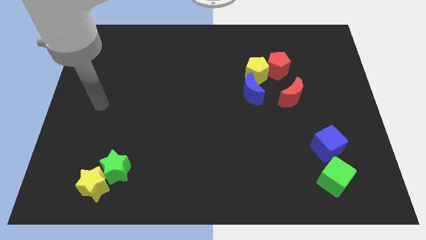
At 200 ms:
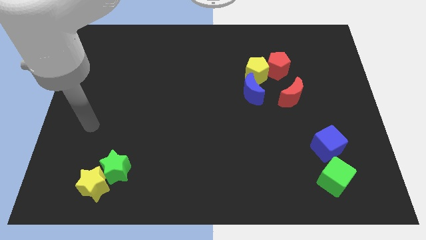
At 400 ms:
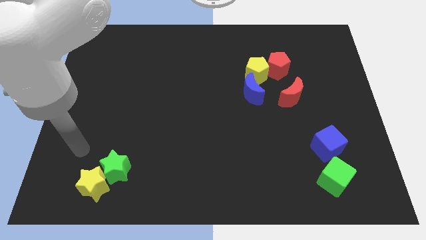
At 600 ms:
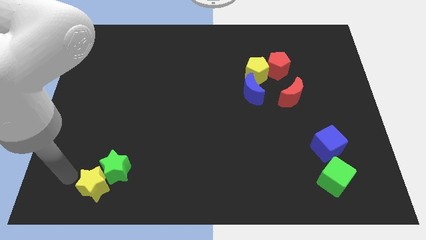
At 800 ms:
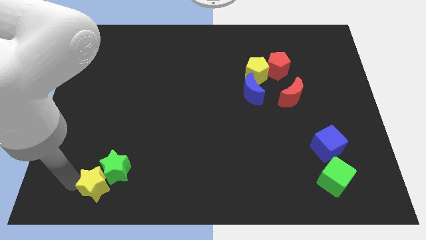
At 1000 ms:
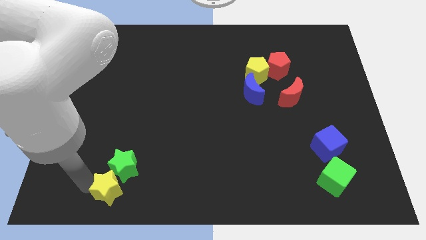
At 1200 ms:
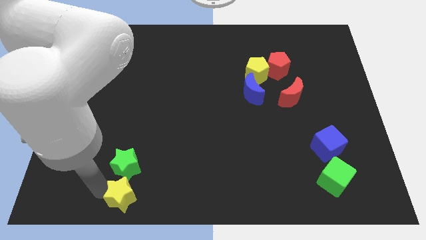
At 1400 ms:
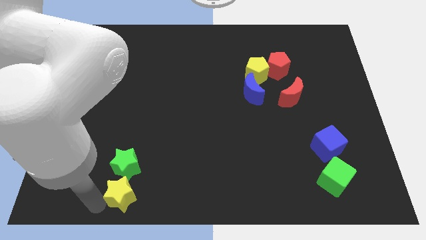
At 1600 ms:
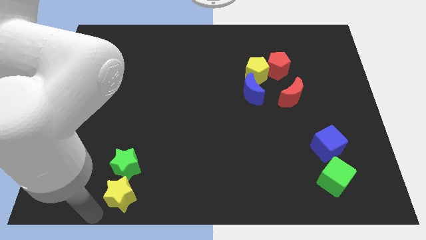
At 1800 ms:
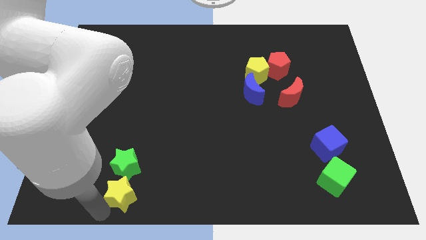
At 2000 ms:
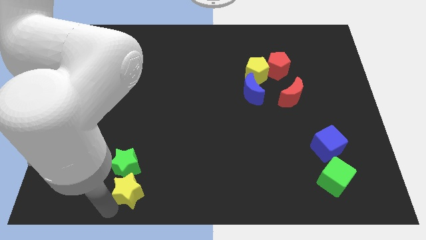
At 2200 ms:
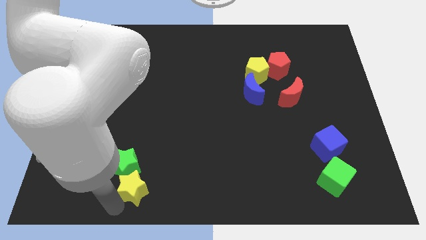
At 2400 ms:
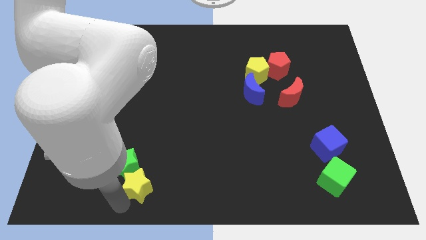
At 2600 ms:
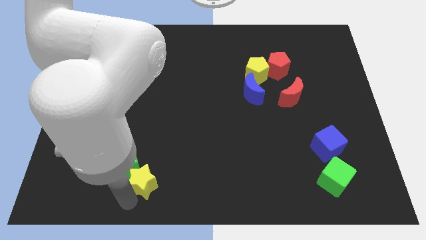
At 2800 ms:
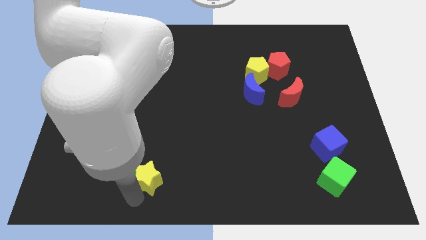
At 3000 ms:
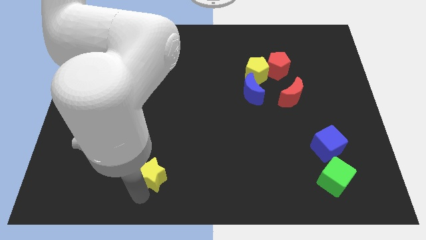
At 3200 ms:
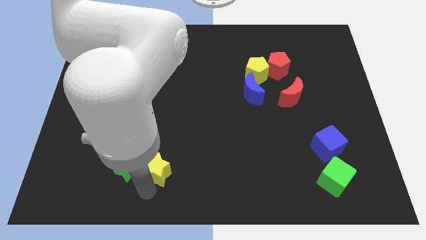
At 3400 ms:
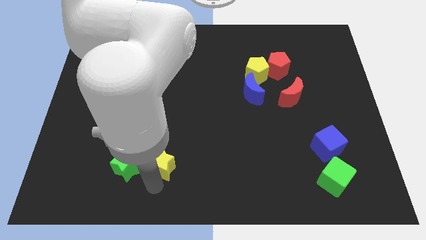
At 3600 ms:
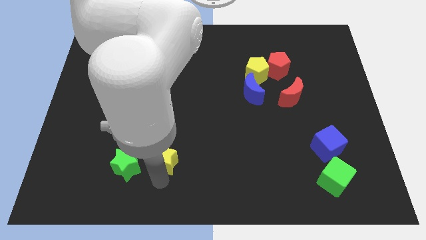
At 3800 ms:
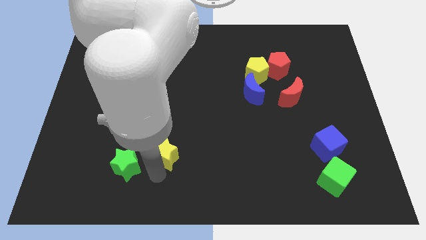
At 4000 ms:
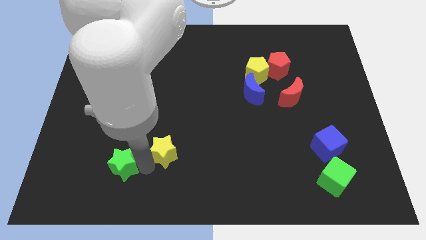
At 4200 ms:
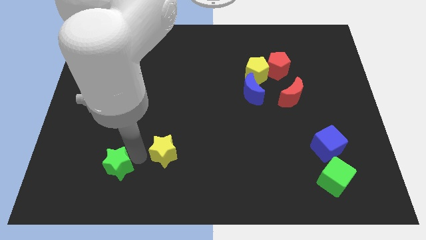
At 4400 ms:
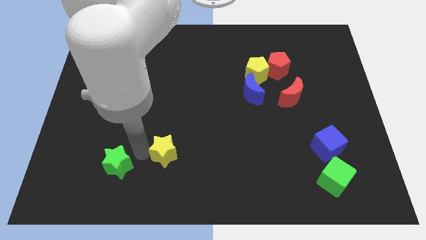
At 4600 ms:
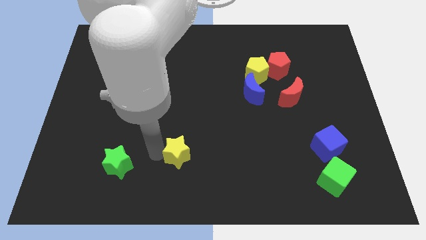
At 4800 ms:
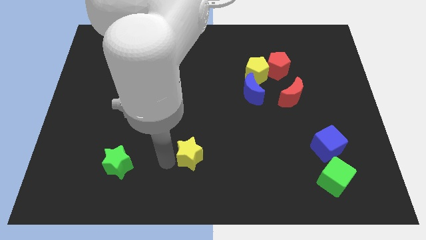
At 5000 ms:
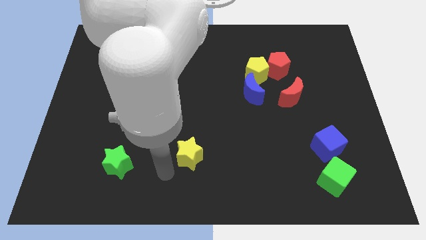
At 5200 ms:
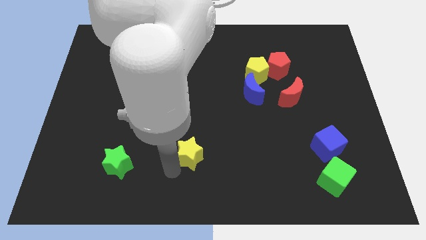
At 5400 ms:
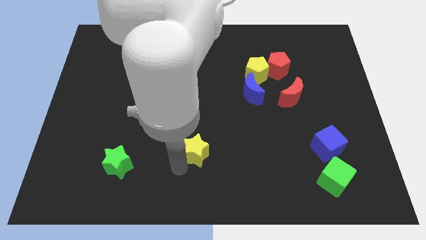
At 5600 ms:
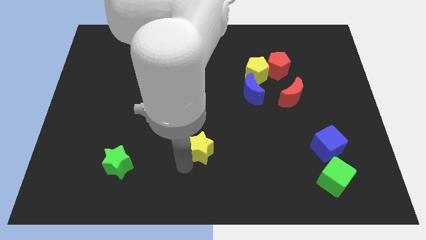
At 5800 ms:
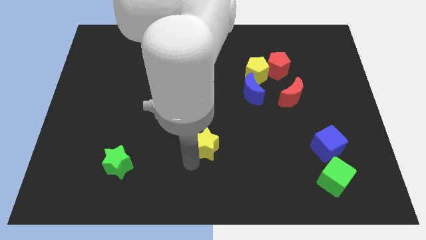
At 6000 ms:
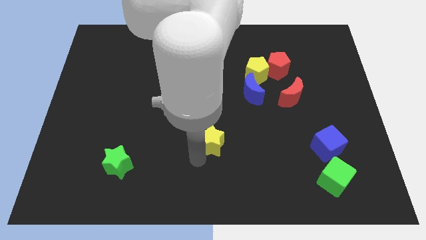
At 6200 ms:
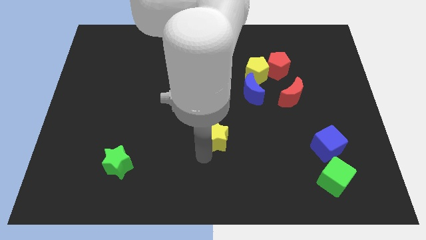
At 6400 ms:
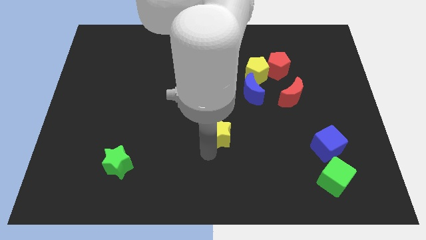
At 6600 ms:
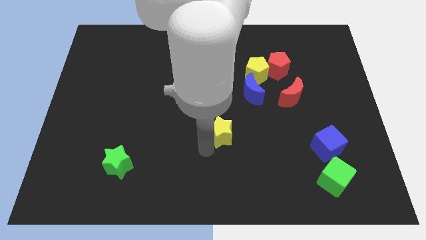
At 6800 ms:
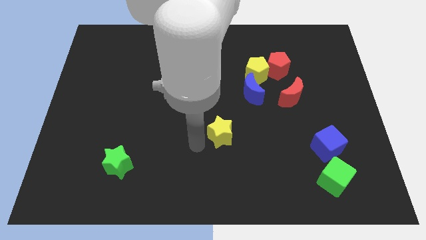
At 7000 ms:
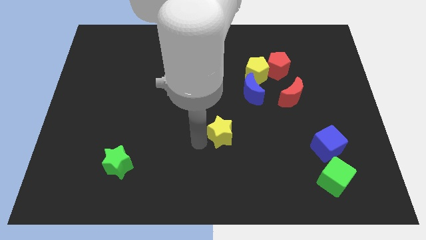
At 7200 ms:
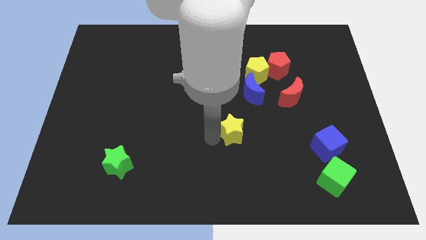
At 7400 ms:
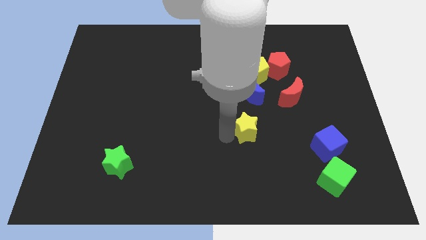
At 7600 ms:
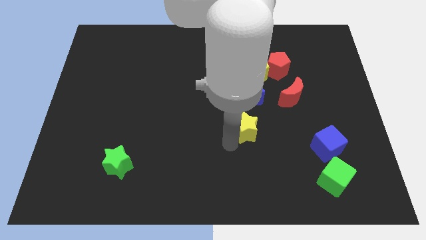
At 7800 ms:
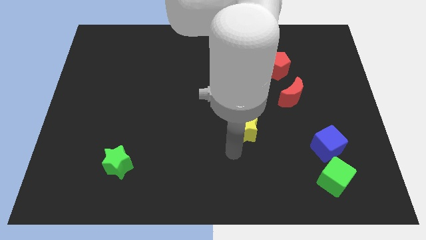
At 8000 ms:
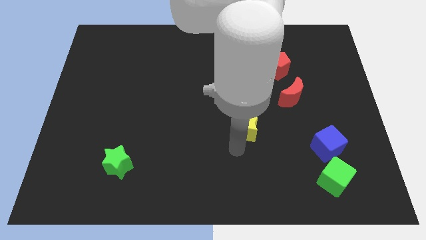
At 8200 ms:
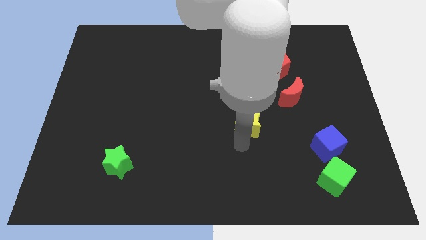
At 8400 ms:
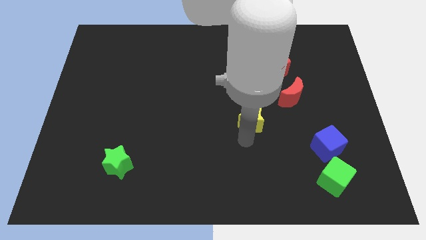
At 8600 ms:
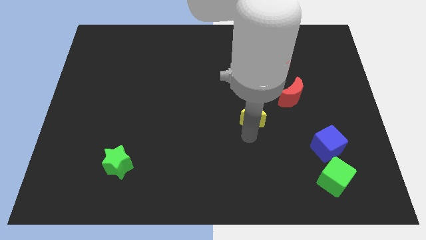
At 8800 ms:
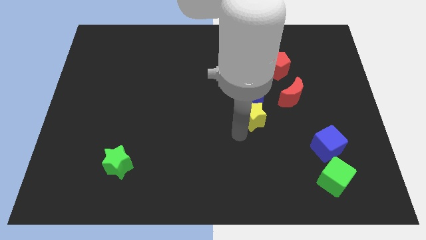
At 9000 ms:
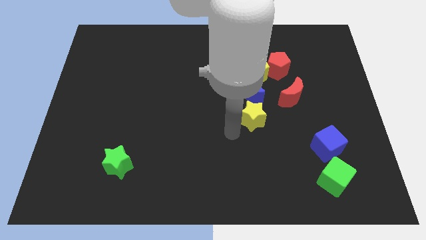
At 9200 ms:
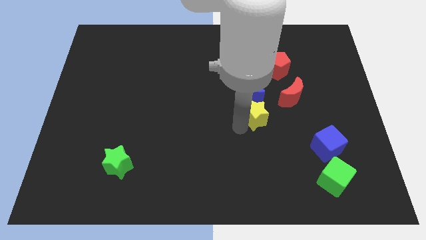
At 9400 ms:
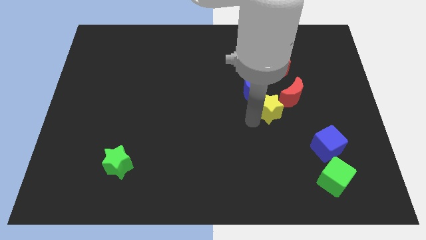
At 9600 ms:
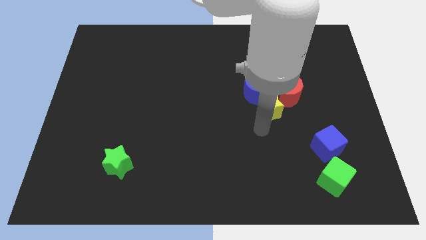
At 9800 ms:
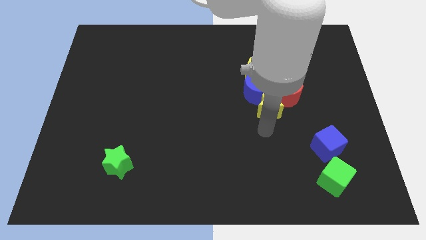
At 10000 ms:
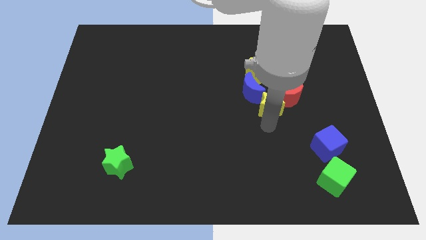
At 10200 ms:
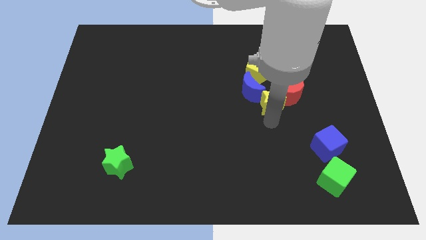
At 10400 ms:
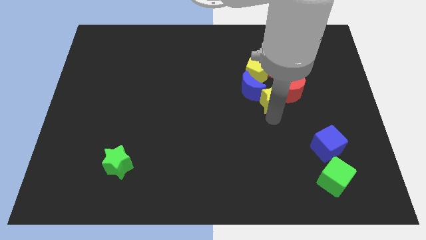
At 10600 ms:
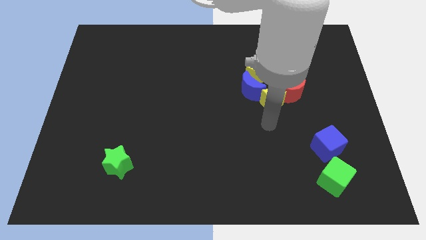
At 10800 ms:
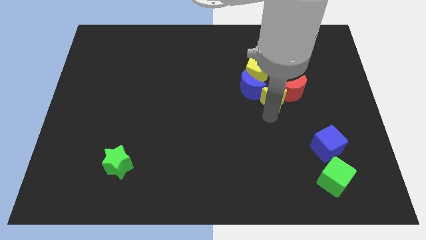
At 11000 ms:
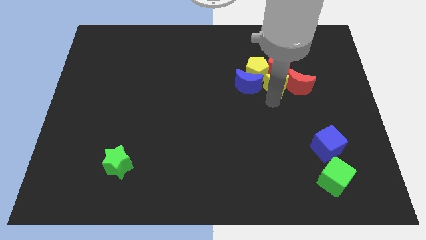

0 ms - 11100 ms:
push the yellow star towards the red pentagon

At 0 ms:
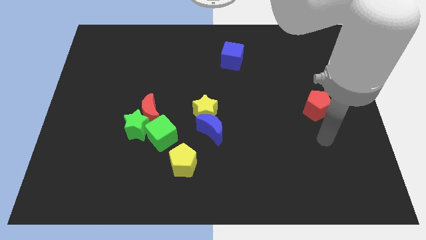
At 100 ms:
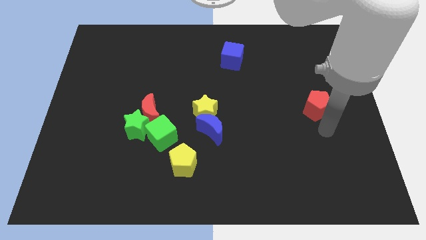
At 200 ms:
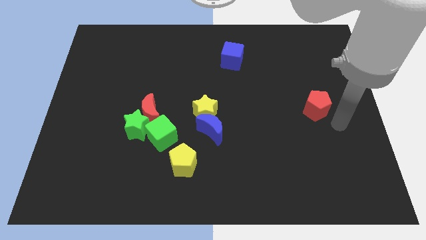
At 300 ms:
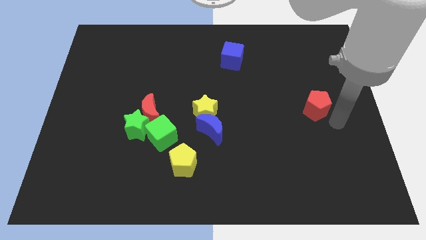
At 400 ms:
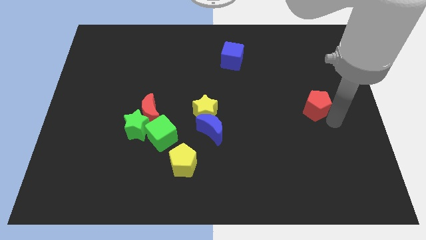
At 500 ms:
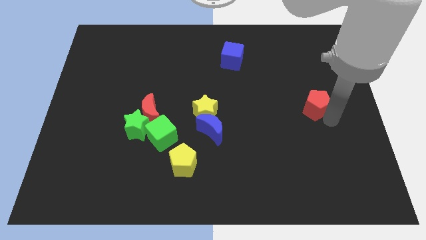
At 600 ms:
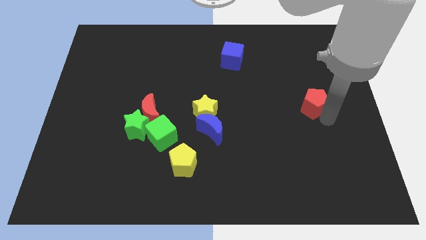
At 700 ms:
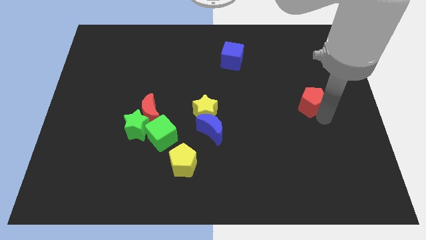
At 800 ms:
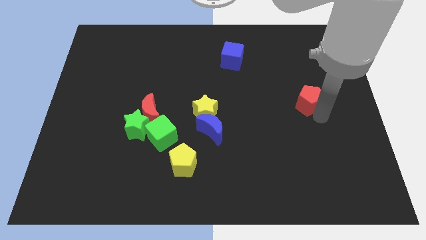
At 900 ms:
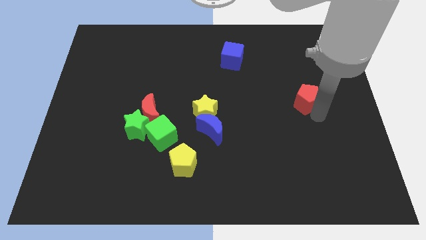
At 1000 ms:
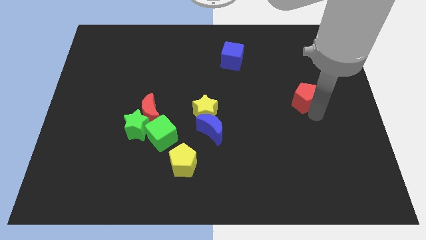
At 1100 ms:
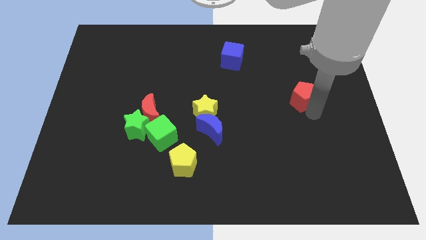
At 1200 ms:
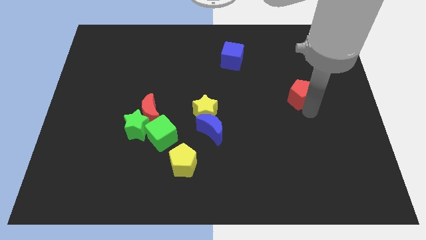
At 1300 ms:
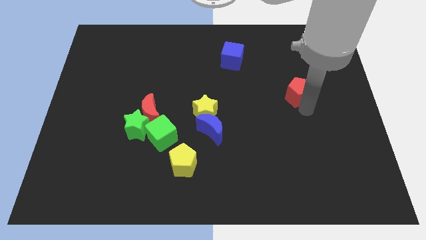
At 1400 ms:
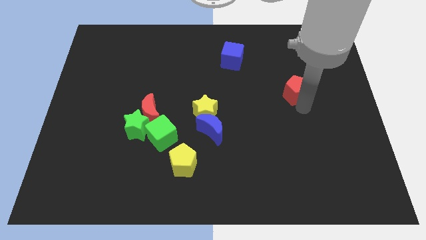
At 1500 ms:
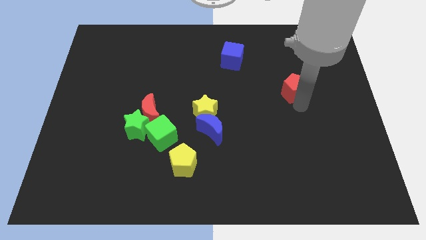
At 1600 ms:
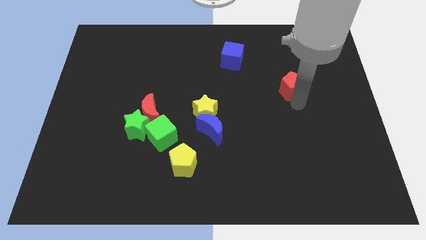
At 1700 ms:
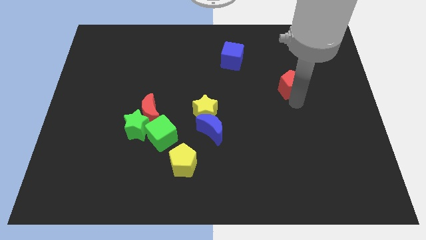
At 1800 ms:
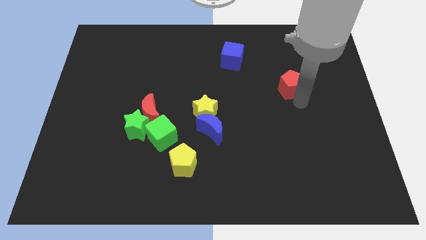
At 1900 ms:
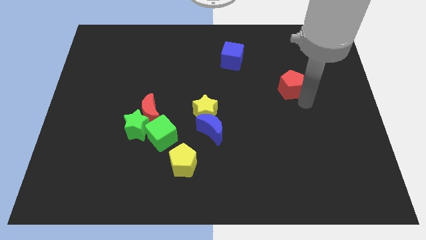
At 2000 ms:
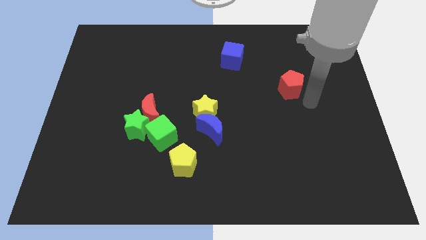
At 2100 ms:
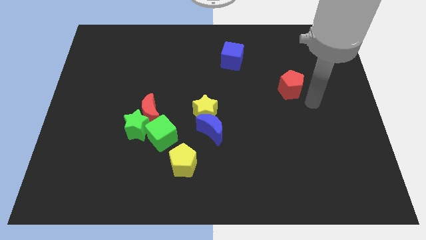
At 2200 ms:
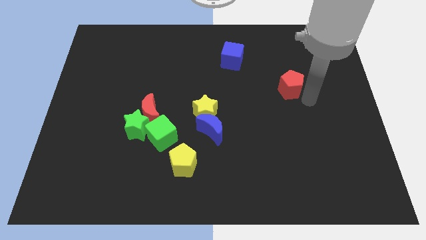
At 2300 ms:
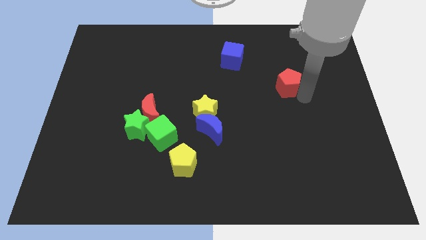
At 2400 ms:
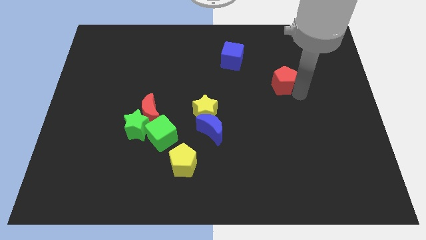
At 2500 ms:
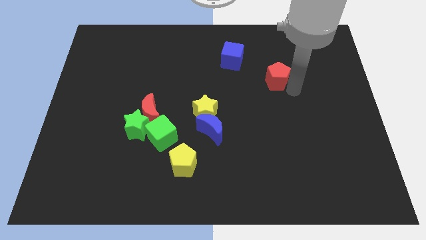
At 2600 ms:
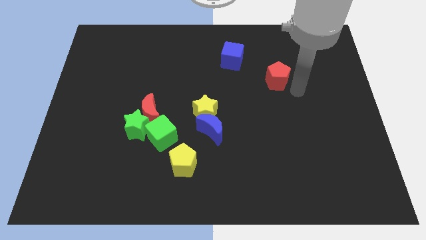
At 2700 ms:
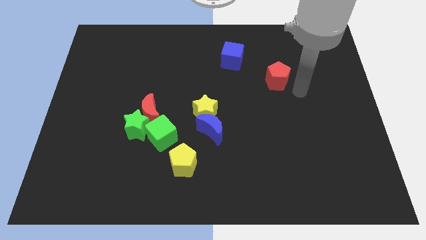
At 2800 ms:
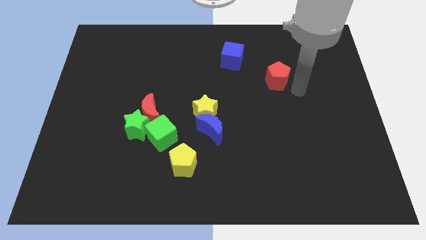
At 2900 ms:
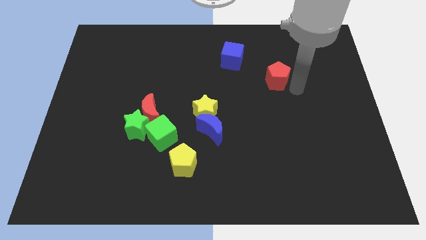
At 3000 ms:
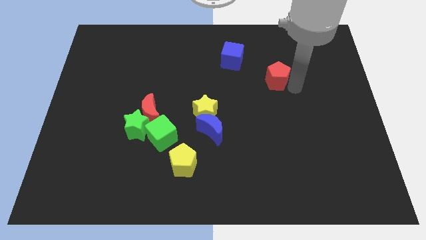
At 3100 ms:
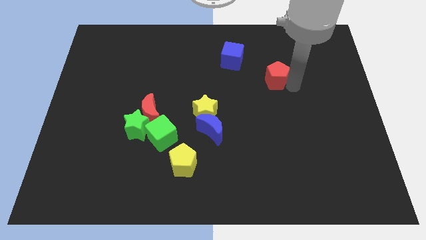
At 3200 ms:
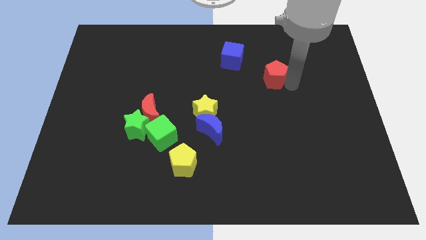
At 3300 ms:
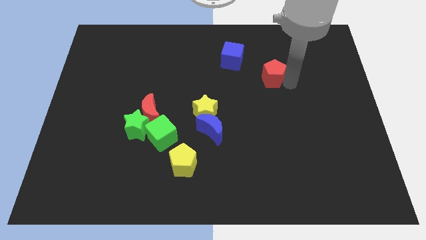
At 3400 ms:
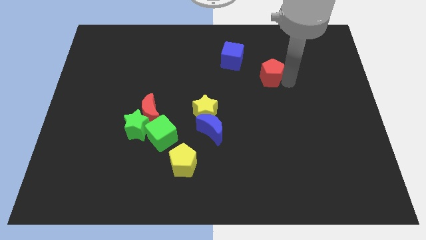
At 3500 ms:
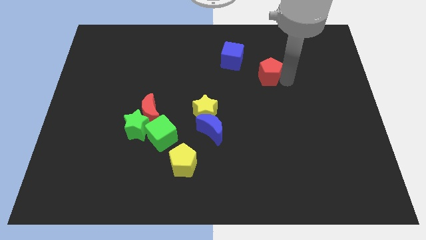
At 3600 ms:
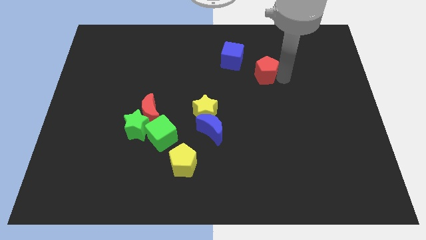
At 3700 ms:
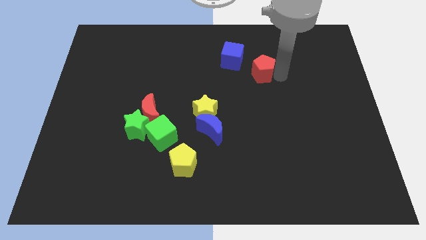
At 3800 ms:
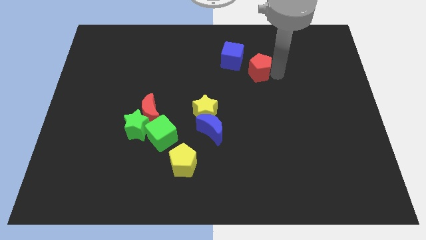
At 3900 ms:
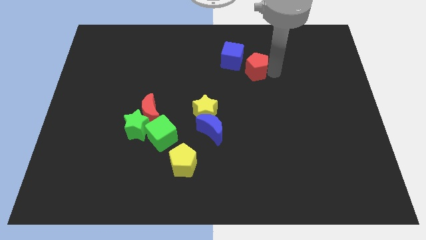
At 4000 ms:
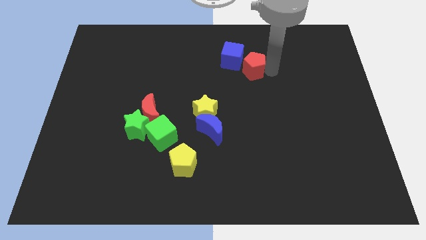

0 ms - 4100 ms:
slide the red pentagon close to the blue cube
